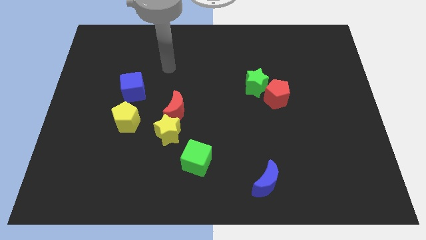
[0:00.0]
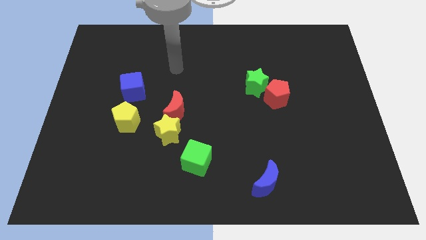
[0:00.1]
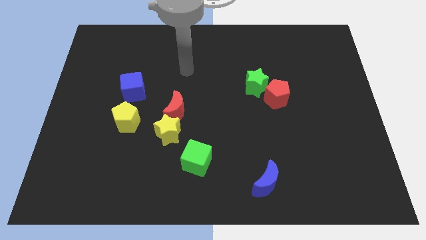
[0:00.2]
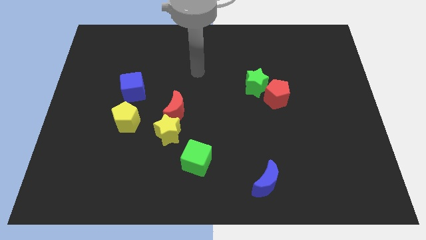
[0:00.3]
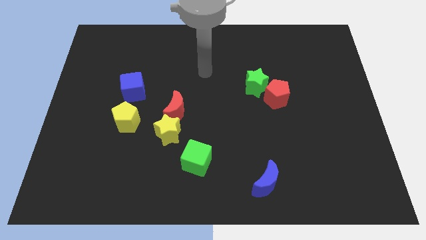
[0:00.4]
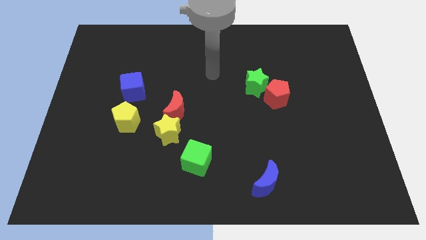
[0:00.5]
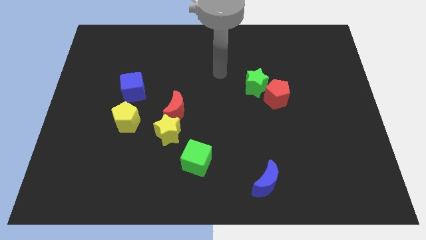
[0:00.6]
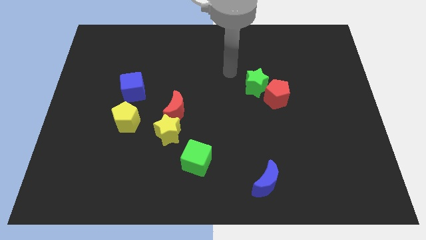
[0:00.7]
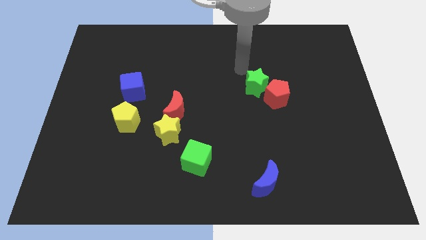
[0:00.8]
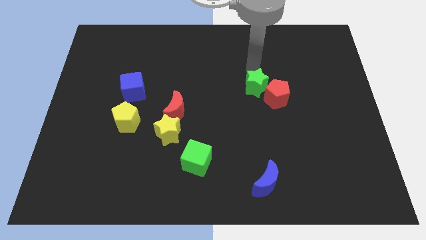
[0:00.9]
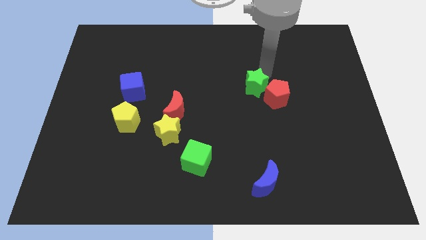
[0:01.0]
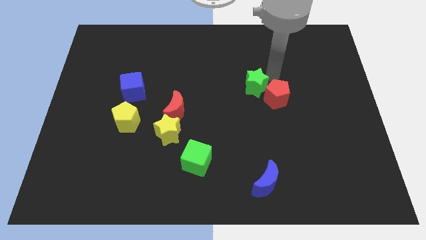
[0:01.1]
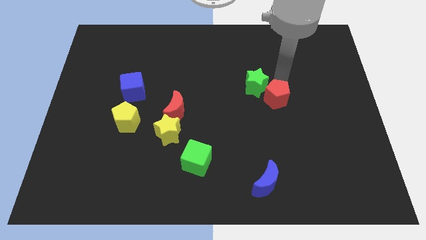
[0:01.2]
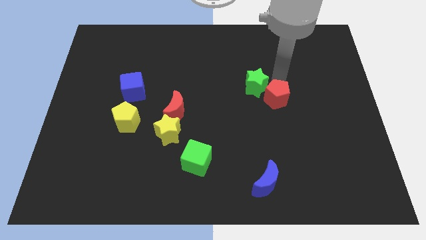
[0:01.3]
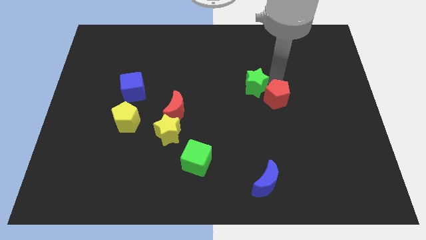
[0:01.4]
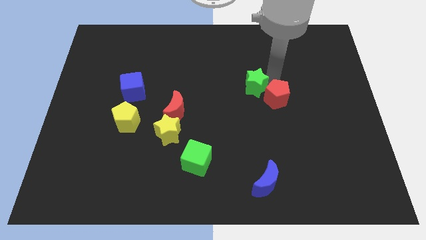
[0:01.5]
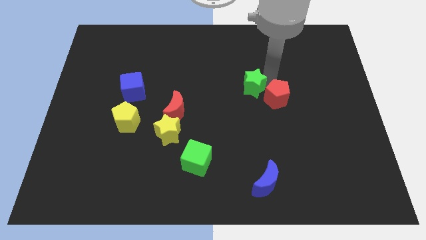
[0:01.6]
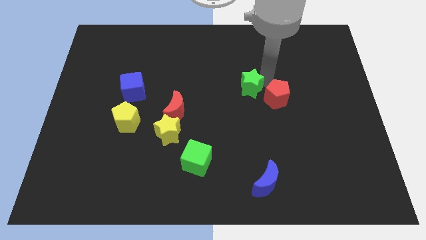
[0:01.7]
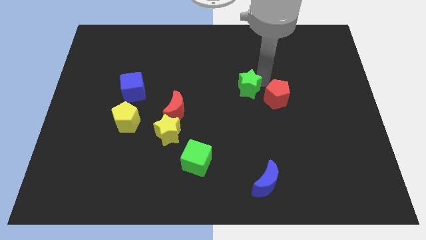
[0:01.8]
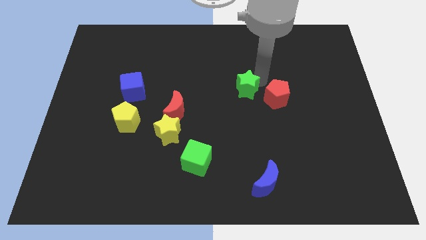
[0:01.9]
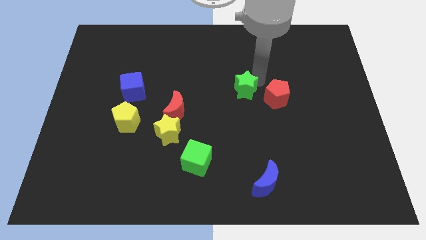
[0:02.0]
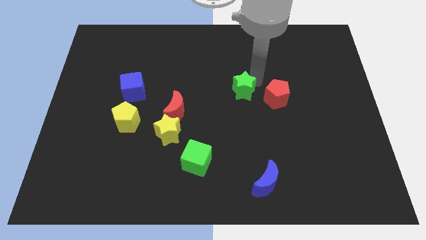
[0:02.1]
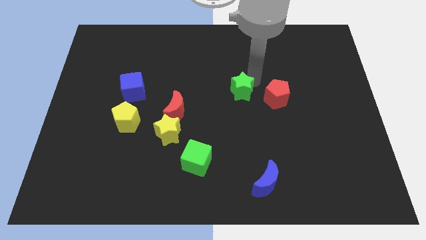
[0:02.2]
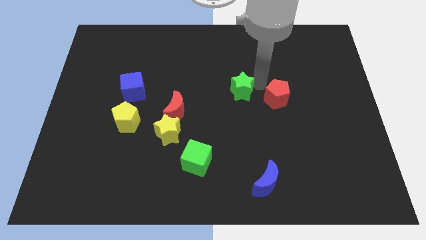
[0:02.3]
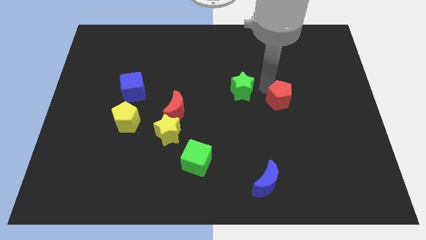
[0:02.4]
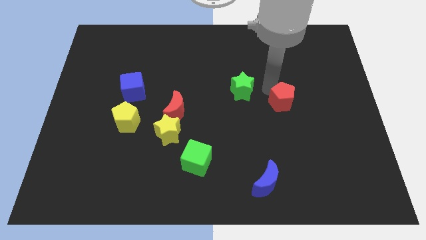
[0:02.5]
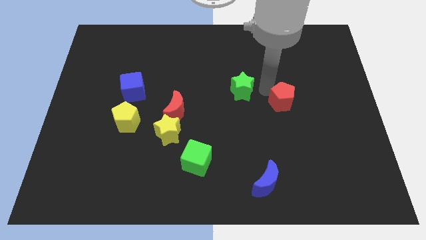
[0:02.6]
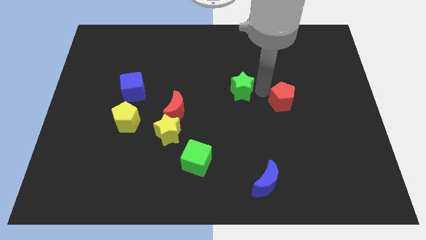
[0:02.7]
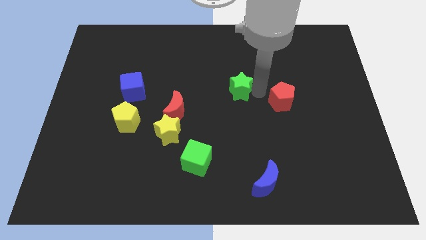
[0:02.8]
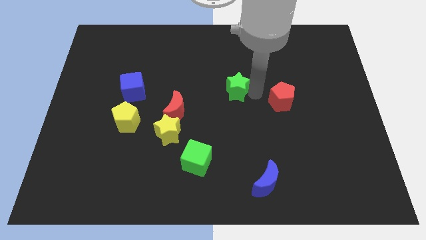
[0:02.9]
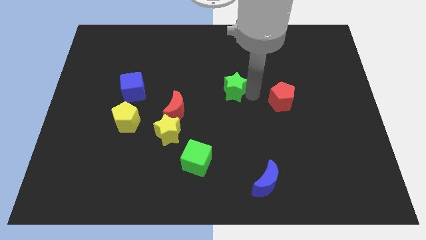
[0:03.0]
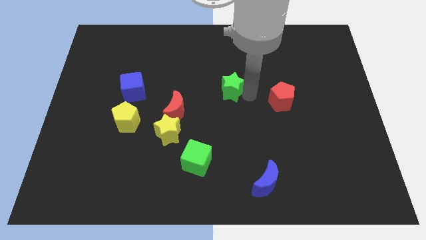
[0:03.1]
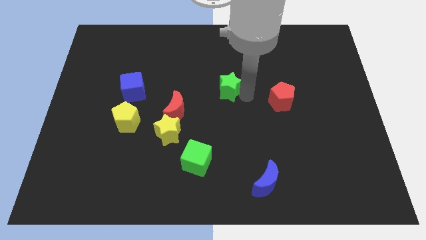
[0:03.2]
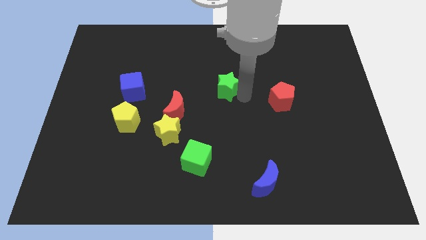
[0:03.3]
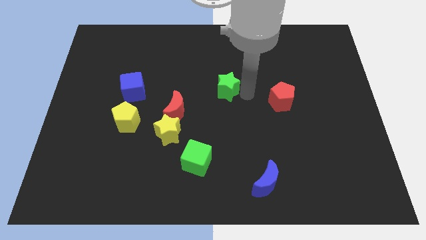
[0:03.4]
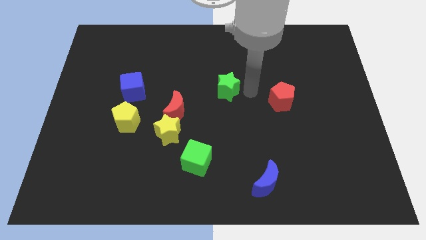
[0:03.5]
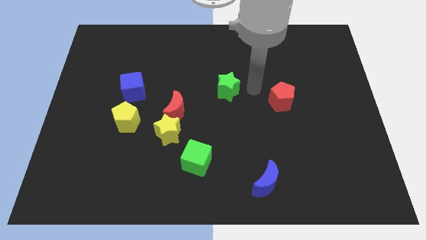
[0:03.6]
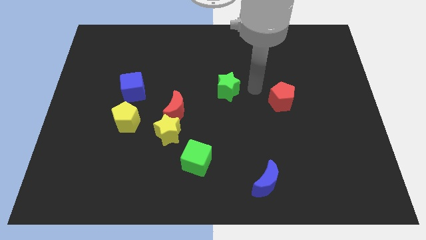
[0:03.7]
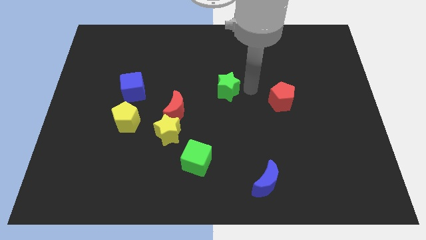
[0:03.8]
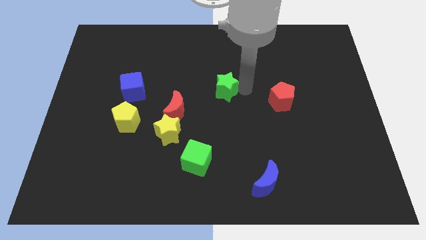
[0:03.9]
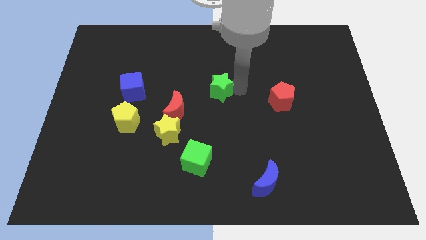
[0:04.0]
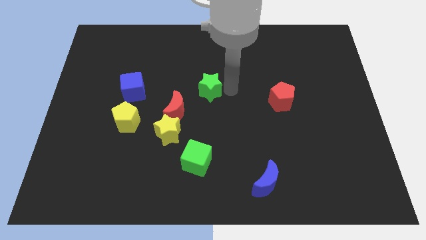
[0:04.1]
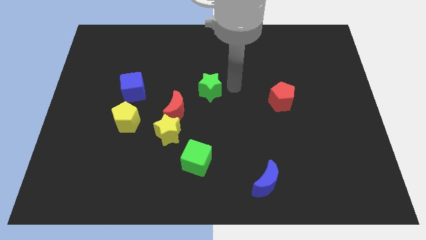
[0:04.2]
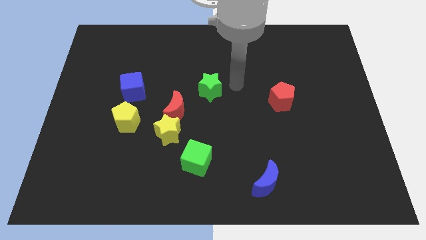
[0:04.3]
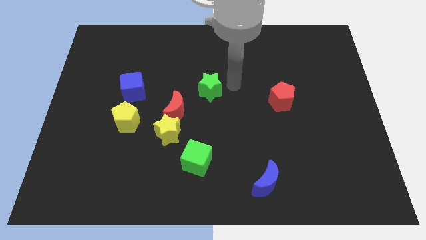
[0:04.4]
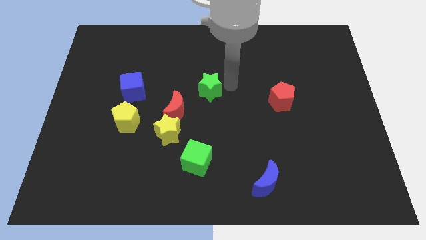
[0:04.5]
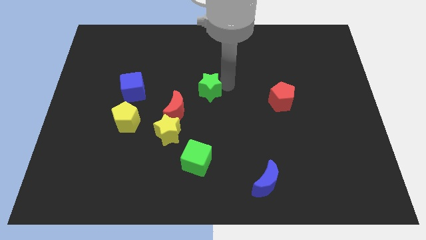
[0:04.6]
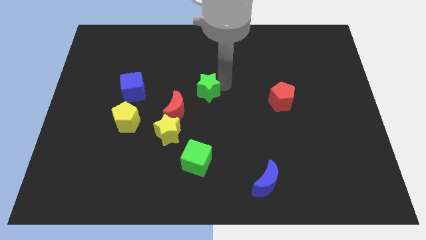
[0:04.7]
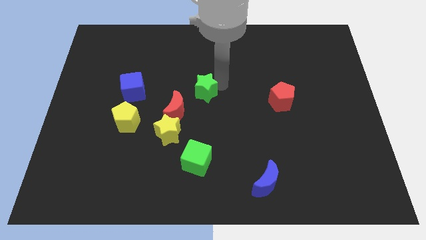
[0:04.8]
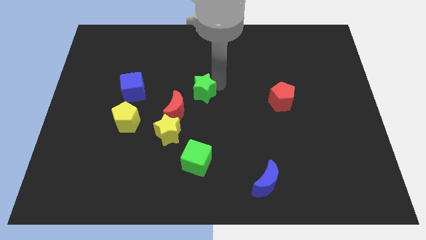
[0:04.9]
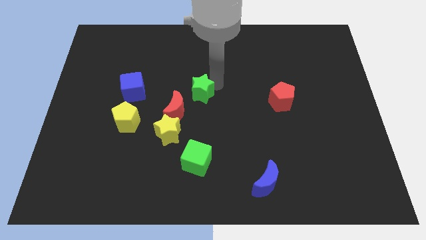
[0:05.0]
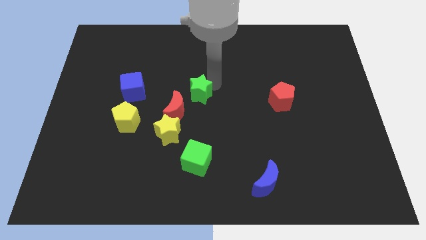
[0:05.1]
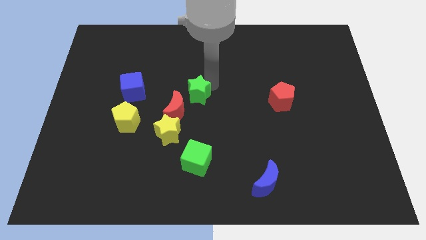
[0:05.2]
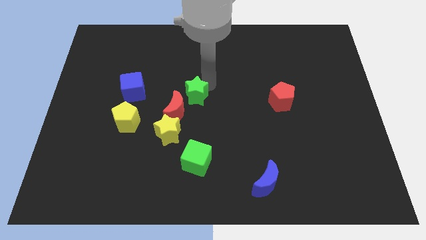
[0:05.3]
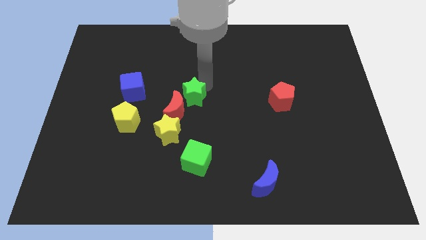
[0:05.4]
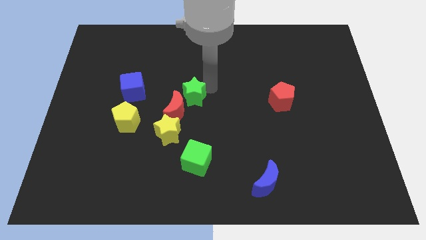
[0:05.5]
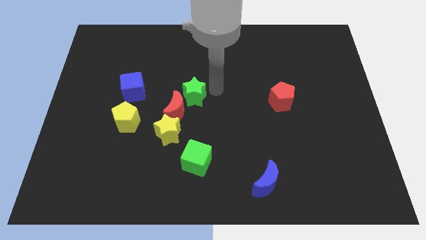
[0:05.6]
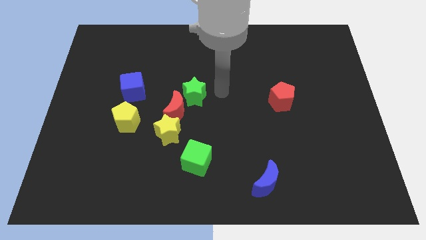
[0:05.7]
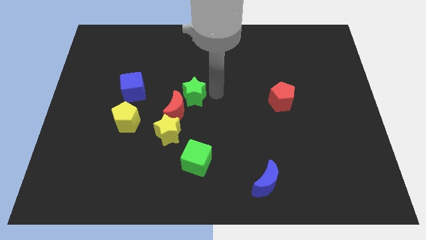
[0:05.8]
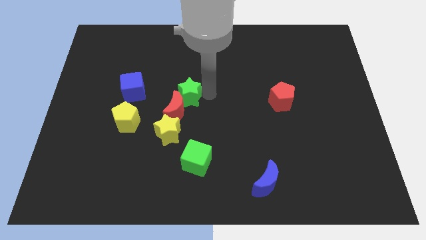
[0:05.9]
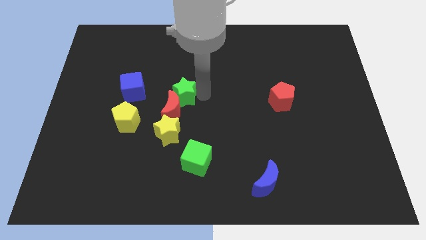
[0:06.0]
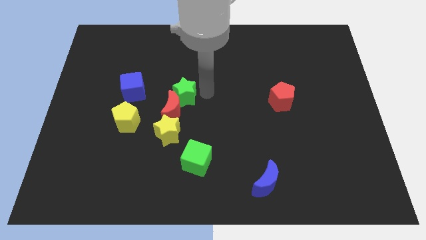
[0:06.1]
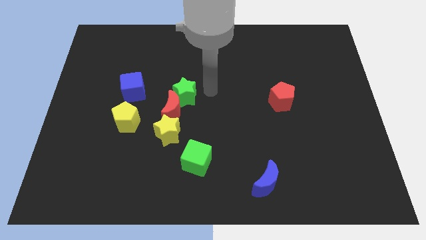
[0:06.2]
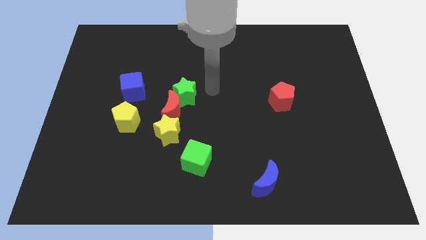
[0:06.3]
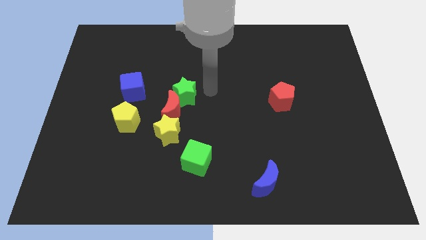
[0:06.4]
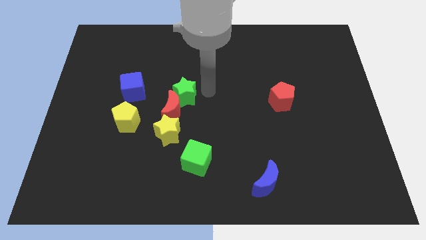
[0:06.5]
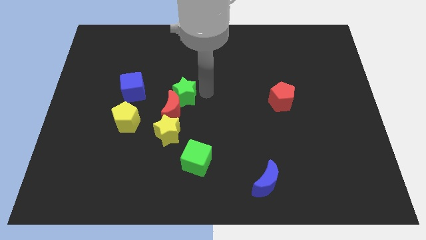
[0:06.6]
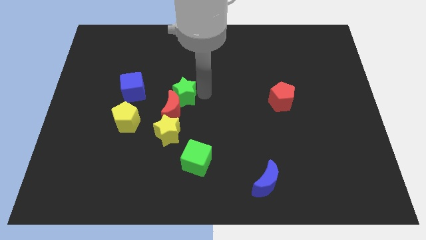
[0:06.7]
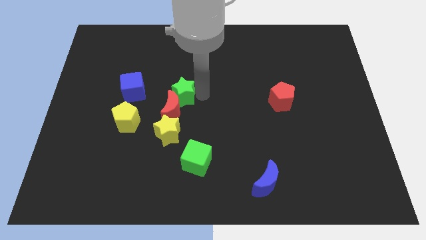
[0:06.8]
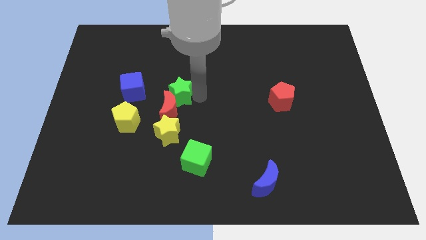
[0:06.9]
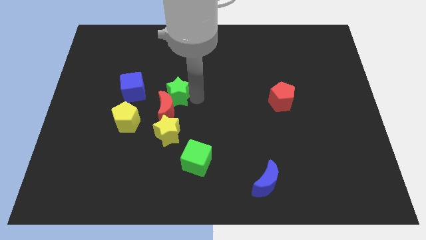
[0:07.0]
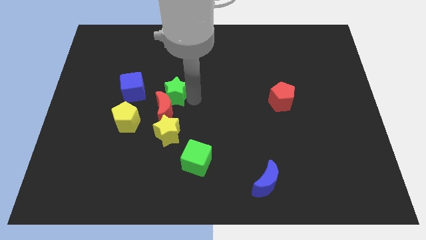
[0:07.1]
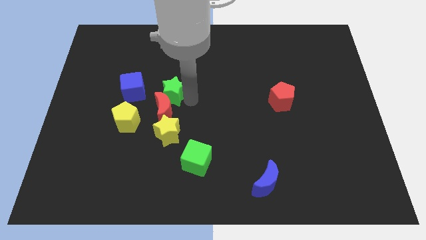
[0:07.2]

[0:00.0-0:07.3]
move the green star to the top right of the yellow pentagon
